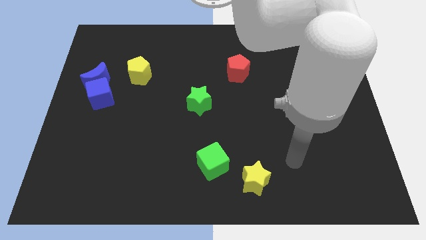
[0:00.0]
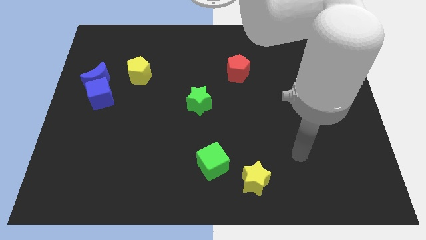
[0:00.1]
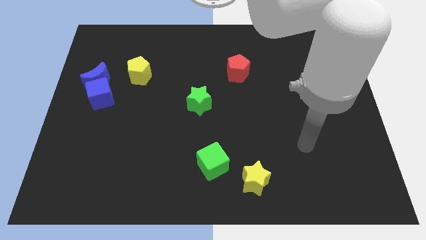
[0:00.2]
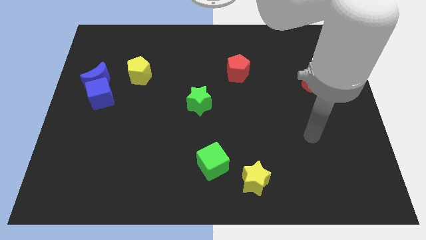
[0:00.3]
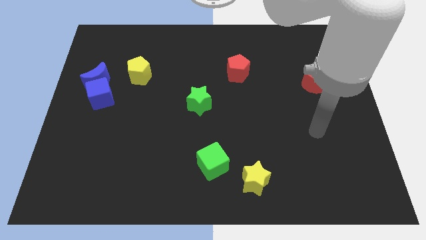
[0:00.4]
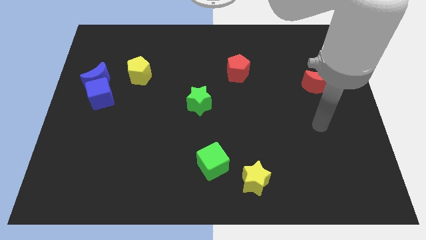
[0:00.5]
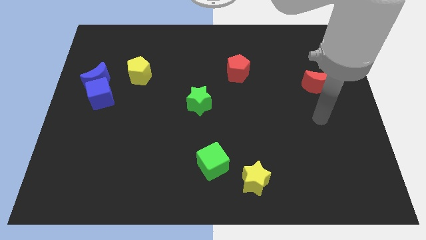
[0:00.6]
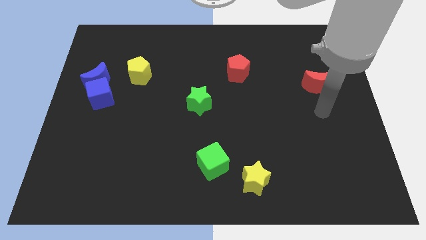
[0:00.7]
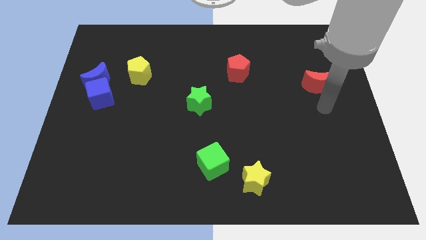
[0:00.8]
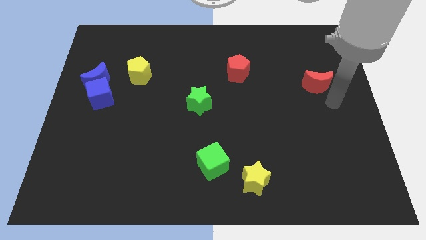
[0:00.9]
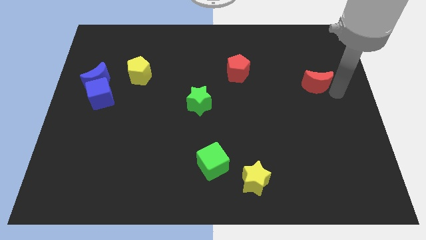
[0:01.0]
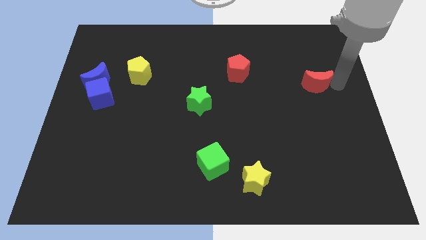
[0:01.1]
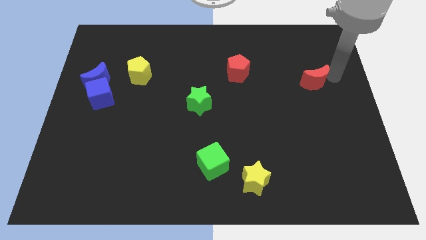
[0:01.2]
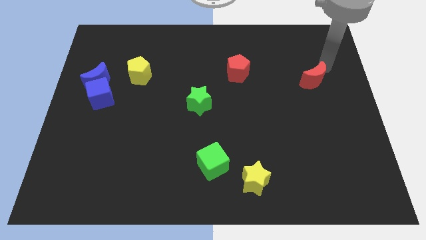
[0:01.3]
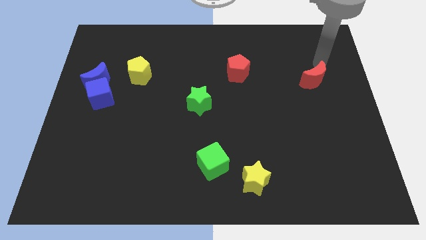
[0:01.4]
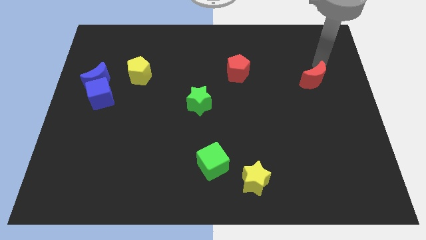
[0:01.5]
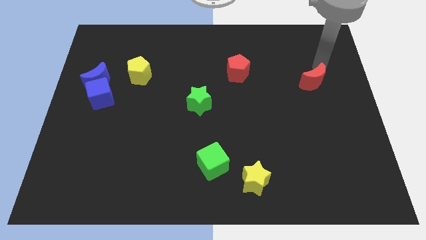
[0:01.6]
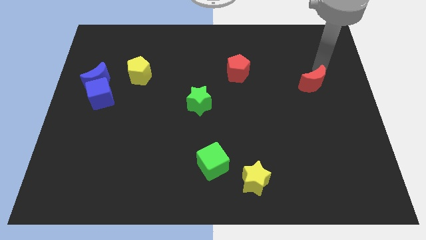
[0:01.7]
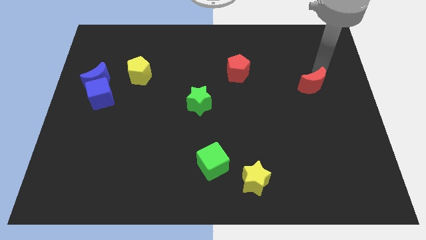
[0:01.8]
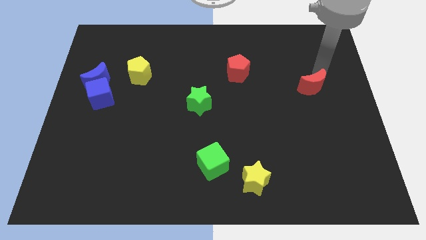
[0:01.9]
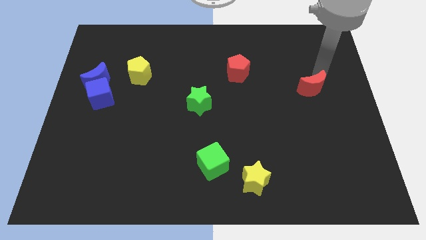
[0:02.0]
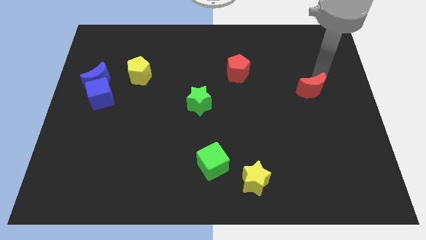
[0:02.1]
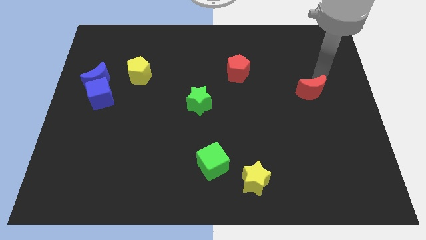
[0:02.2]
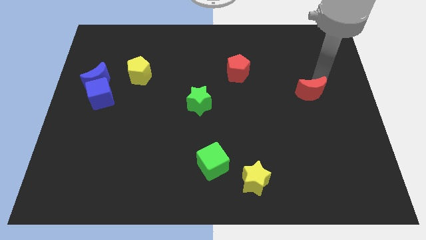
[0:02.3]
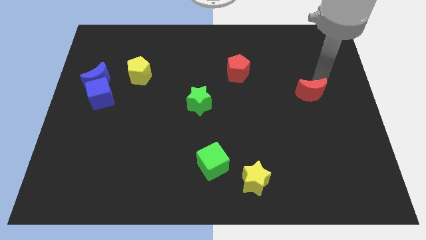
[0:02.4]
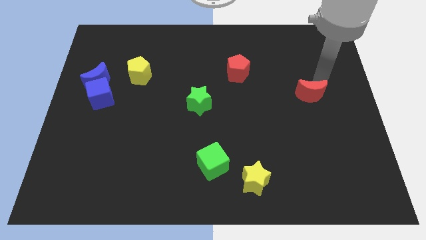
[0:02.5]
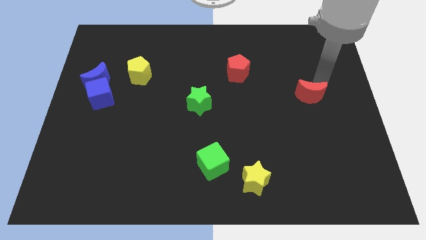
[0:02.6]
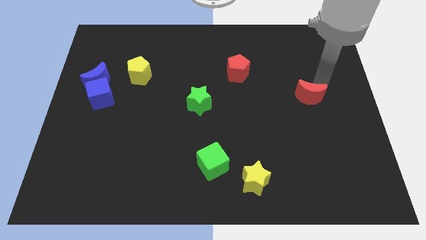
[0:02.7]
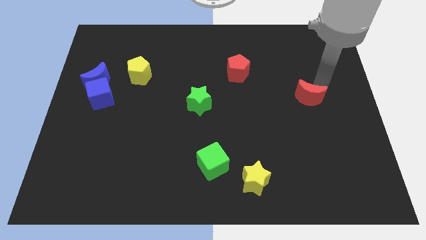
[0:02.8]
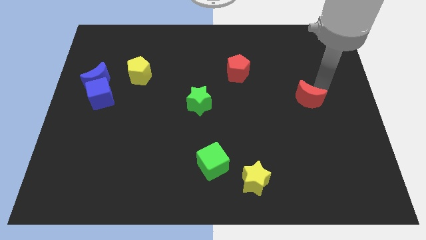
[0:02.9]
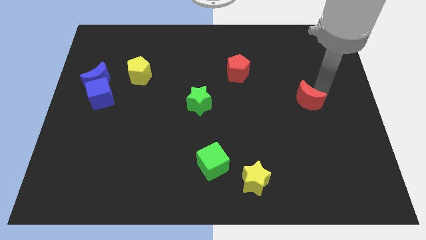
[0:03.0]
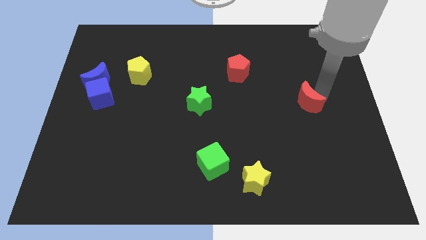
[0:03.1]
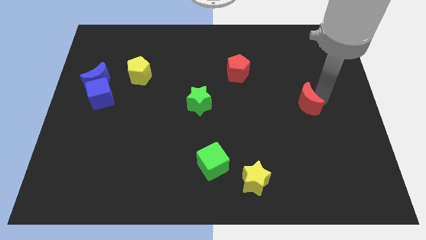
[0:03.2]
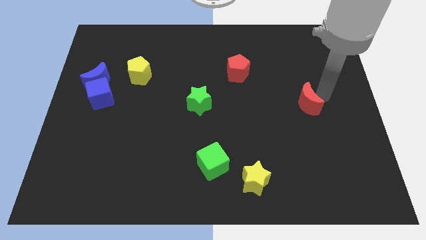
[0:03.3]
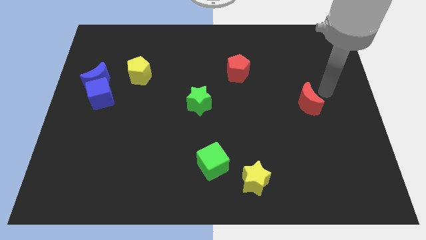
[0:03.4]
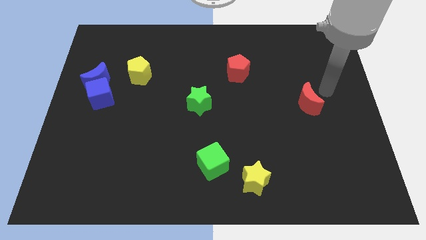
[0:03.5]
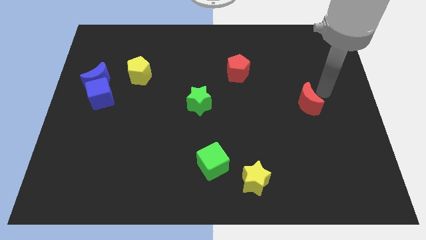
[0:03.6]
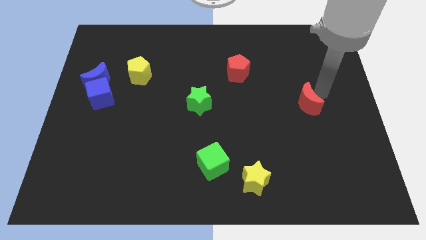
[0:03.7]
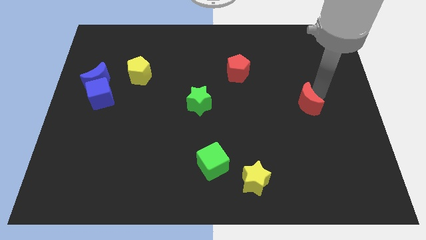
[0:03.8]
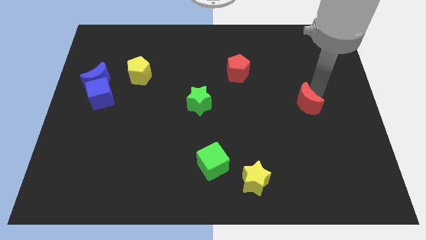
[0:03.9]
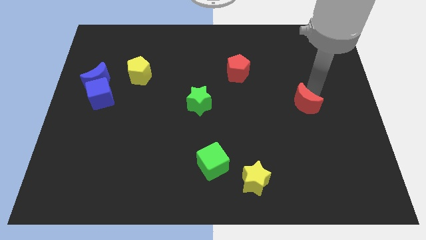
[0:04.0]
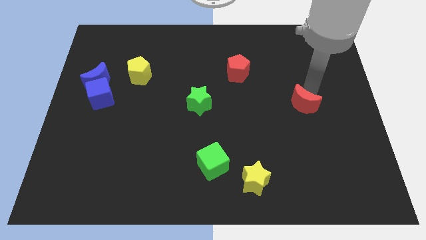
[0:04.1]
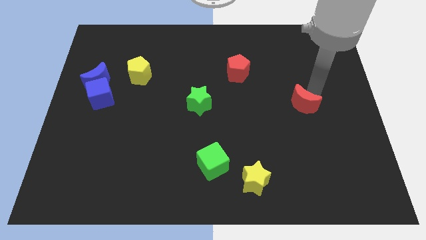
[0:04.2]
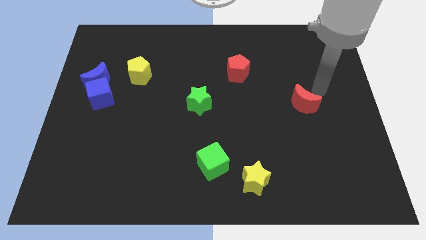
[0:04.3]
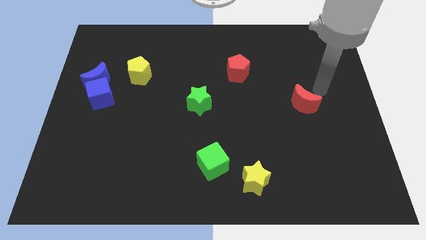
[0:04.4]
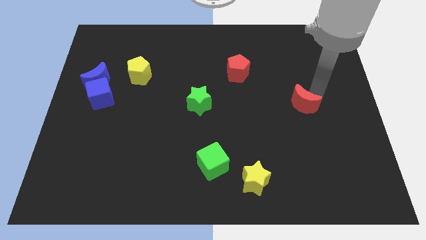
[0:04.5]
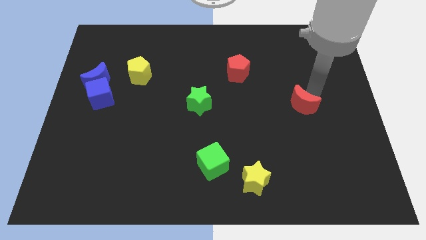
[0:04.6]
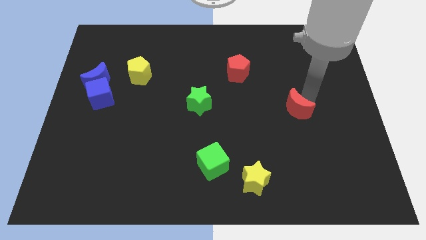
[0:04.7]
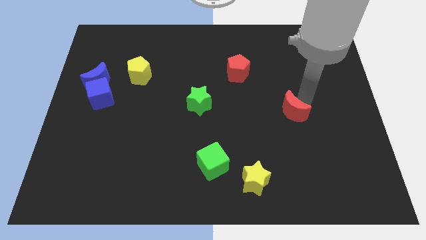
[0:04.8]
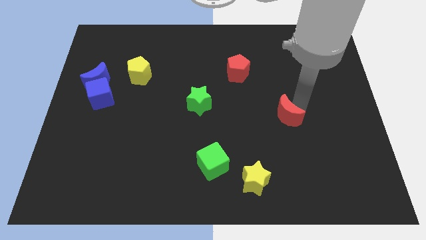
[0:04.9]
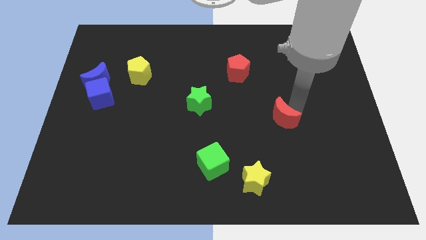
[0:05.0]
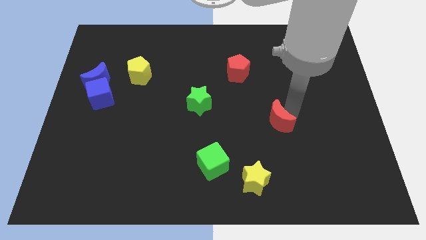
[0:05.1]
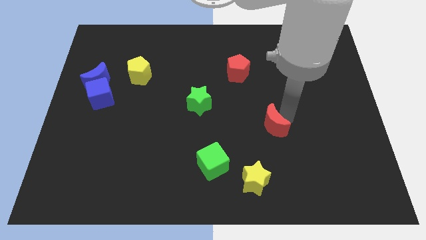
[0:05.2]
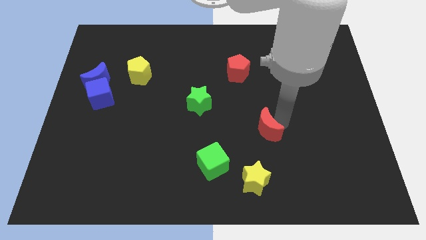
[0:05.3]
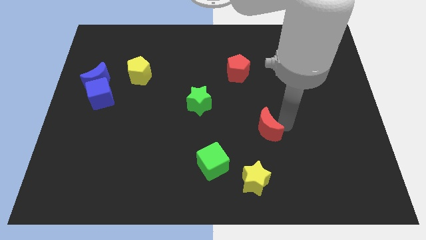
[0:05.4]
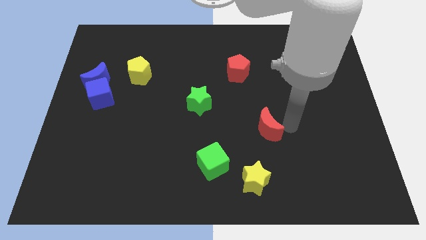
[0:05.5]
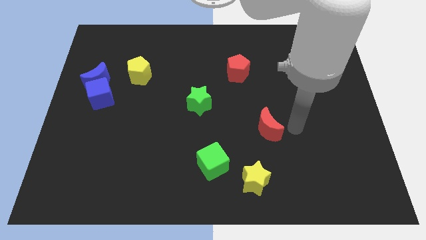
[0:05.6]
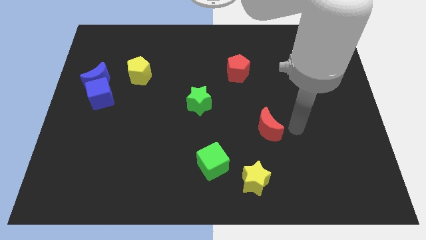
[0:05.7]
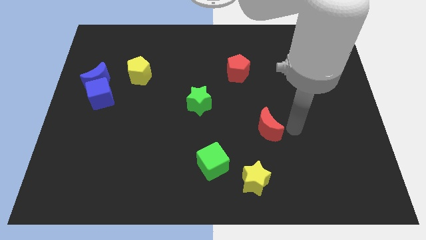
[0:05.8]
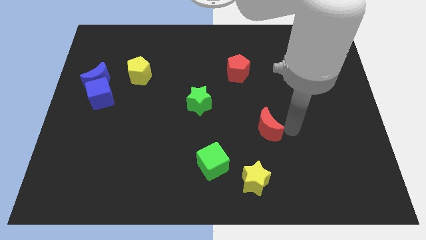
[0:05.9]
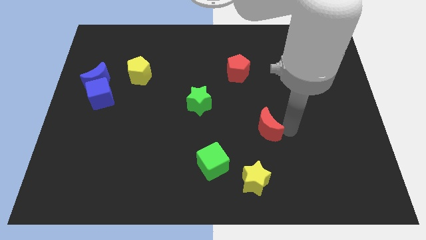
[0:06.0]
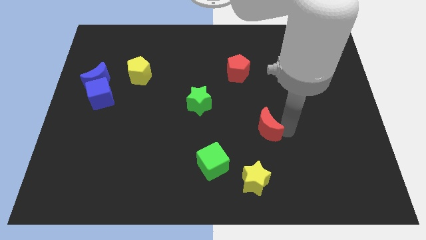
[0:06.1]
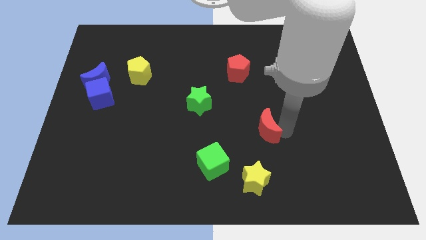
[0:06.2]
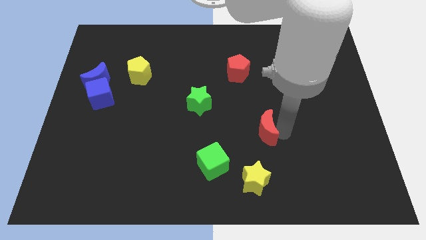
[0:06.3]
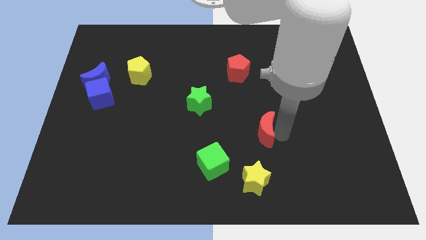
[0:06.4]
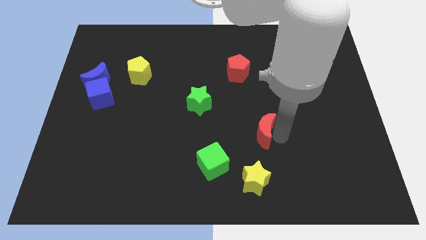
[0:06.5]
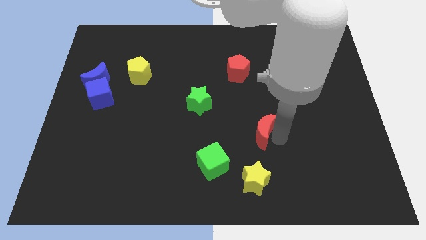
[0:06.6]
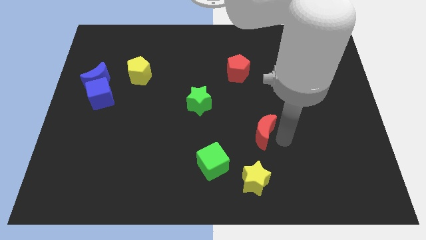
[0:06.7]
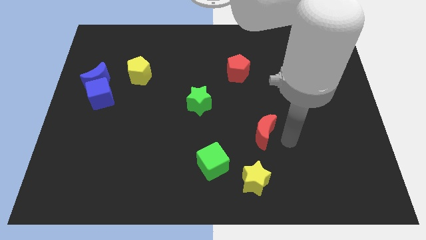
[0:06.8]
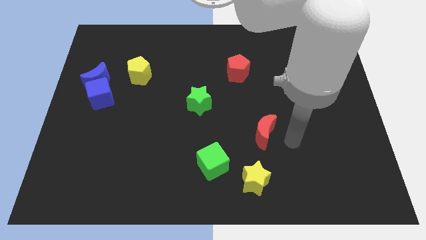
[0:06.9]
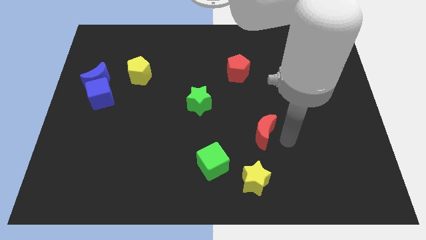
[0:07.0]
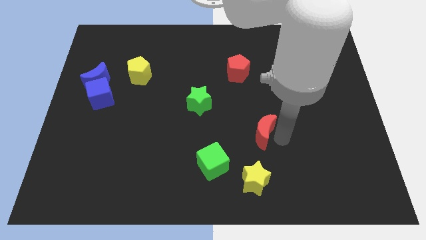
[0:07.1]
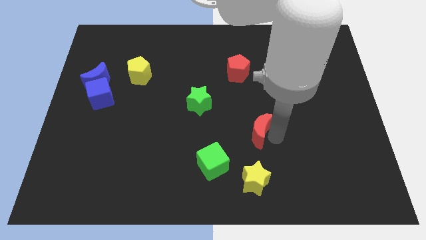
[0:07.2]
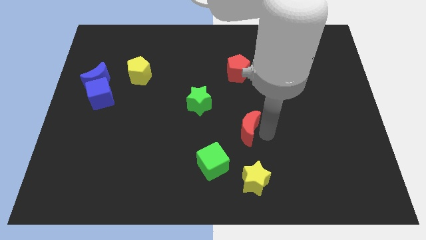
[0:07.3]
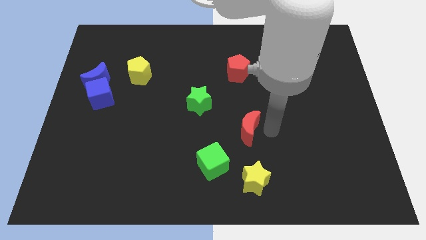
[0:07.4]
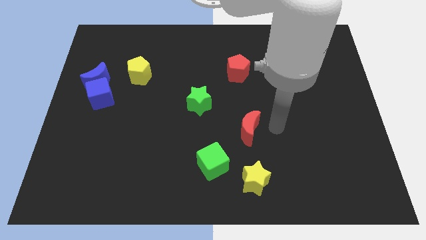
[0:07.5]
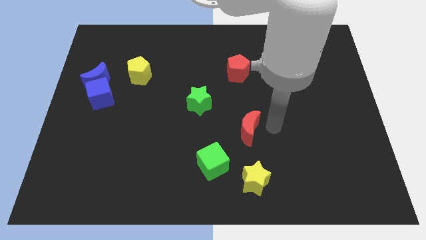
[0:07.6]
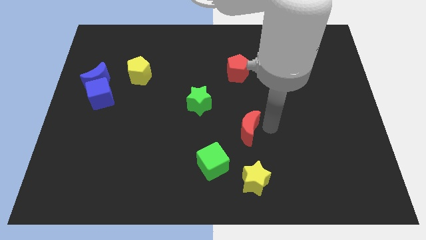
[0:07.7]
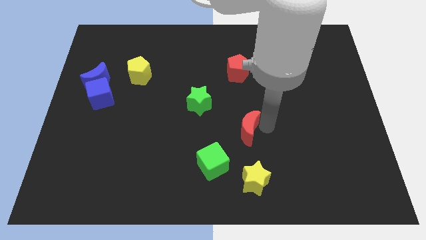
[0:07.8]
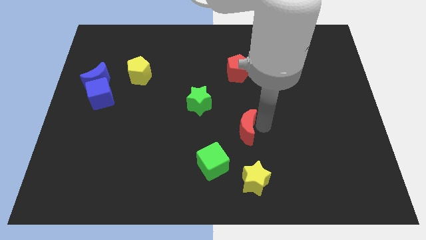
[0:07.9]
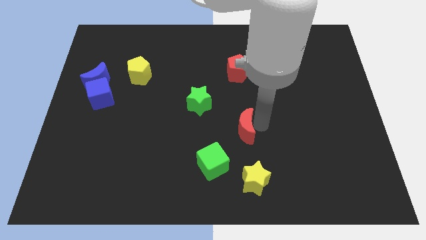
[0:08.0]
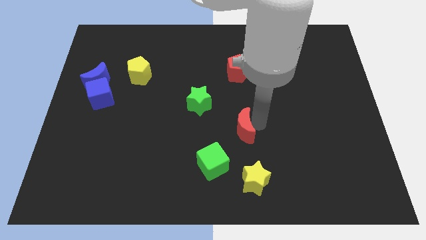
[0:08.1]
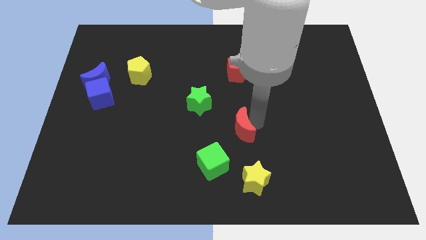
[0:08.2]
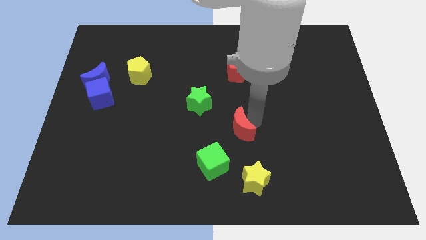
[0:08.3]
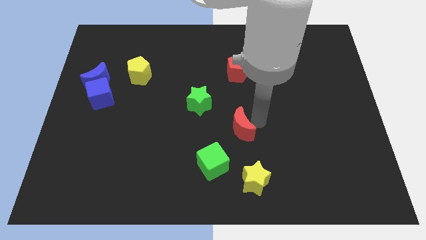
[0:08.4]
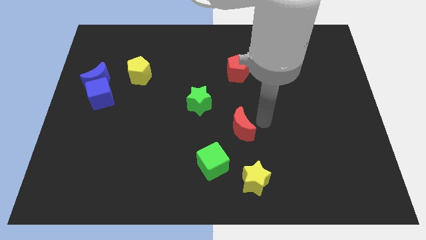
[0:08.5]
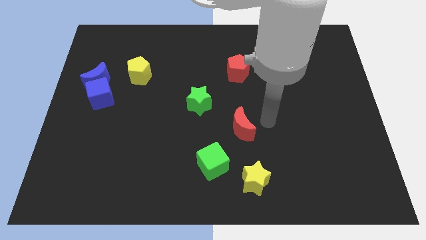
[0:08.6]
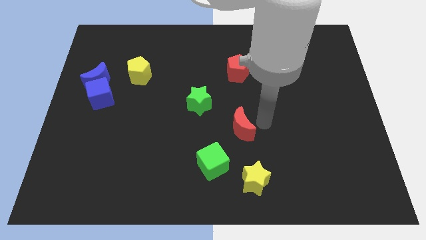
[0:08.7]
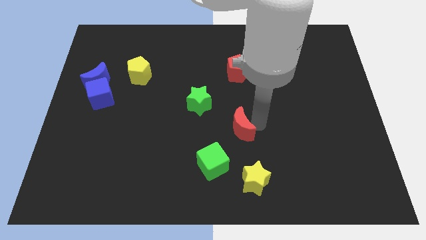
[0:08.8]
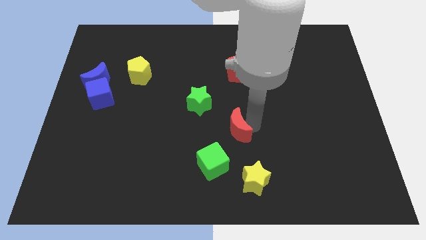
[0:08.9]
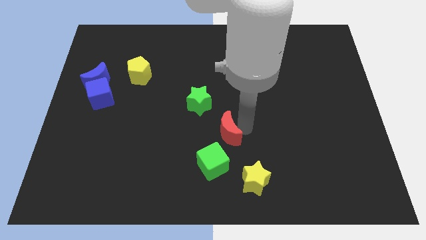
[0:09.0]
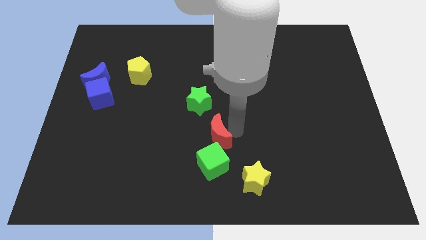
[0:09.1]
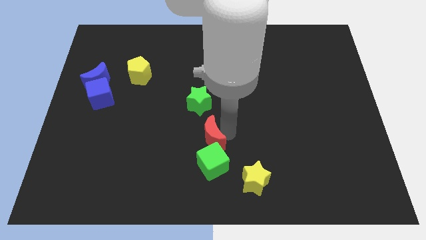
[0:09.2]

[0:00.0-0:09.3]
put the red moon diagonally up and to the left of the green cube
